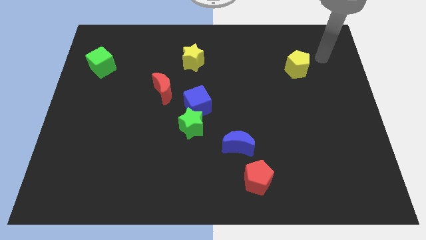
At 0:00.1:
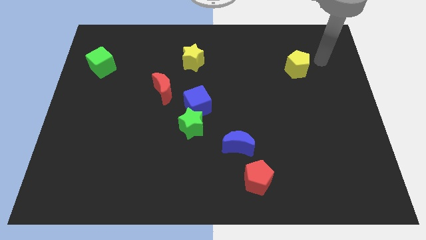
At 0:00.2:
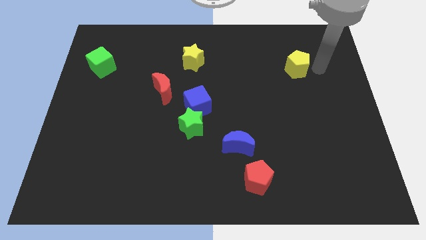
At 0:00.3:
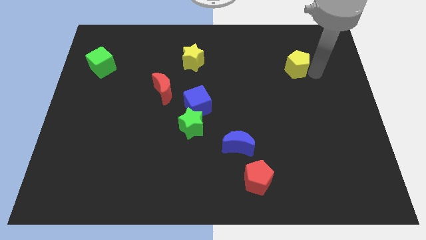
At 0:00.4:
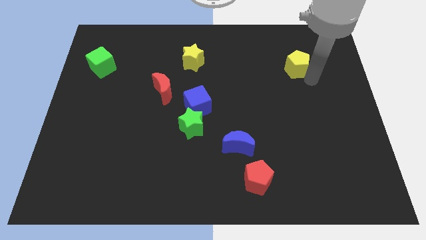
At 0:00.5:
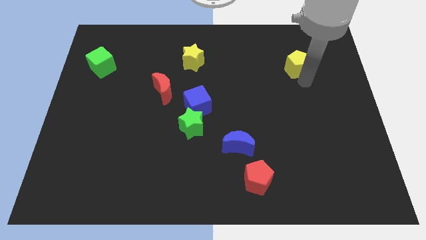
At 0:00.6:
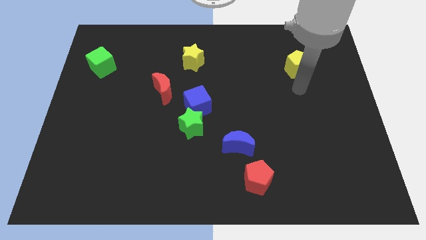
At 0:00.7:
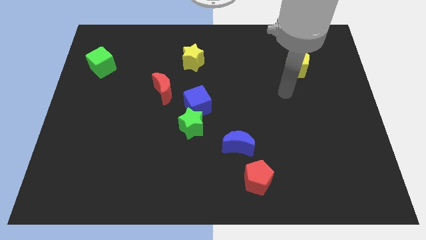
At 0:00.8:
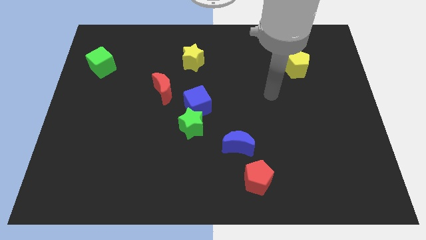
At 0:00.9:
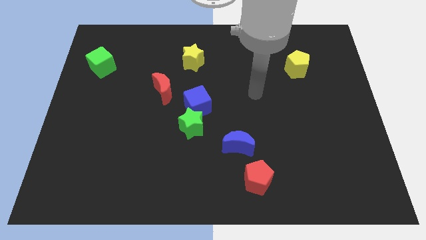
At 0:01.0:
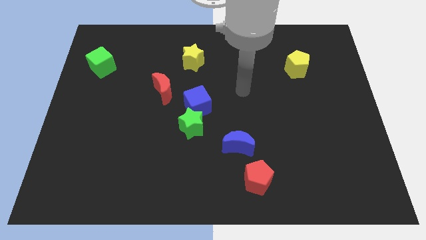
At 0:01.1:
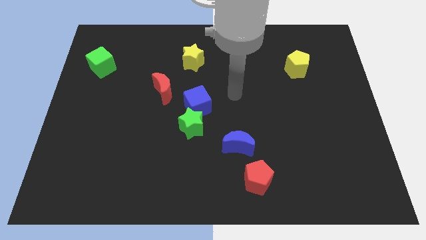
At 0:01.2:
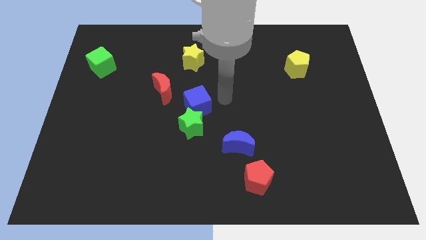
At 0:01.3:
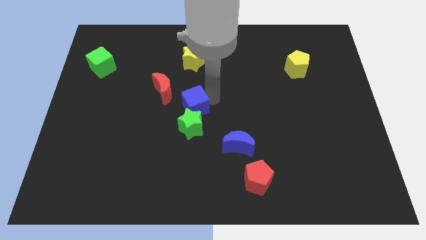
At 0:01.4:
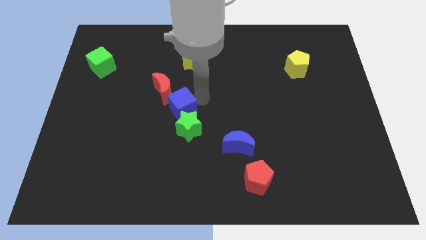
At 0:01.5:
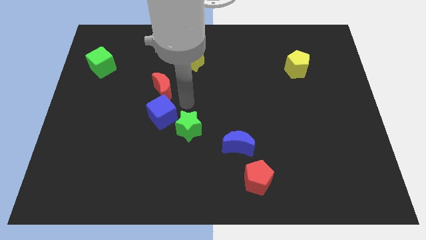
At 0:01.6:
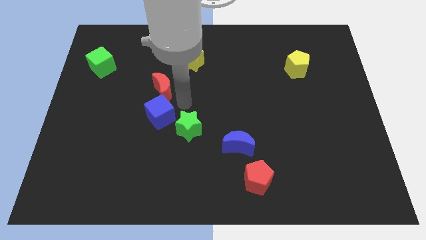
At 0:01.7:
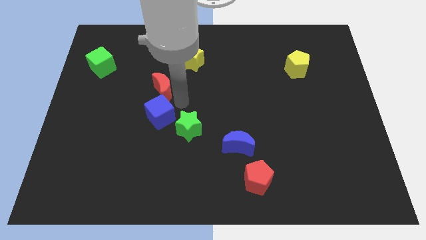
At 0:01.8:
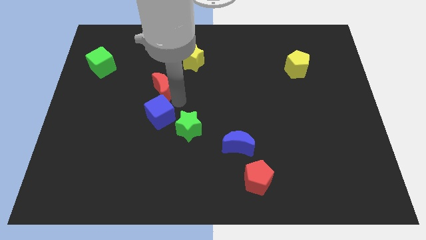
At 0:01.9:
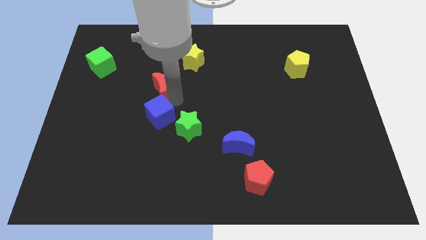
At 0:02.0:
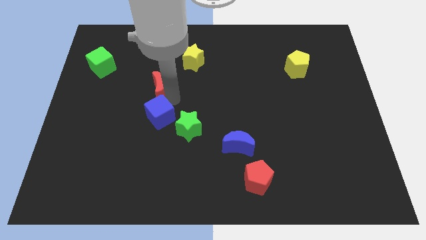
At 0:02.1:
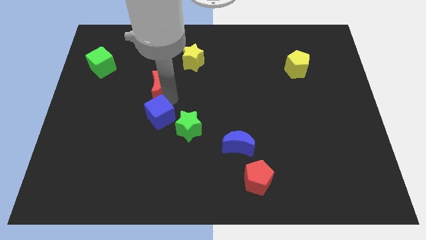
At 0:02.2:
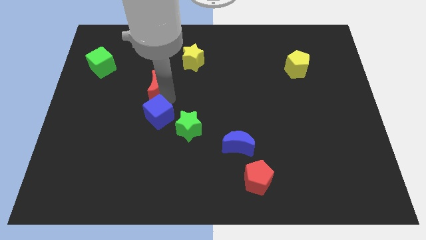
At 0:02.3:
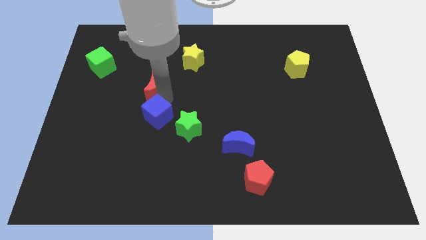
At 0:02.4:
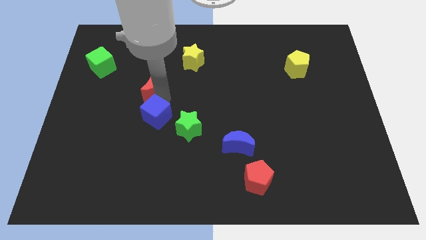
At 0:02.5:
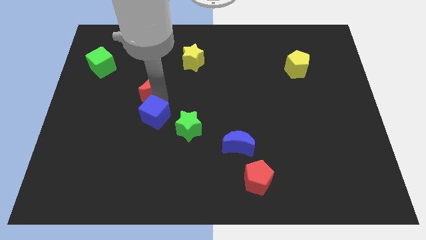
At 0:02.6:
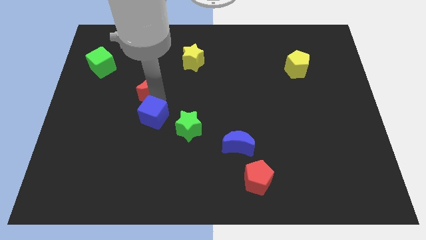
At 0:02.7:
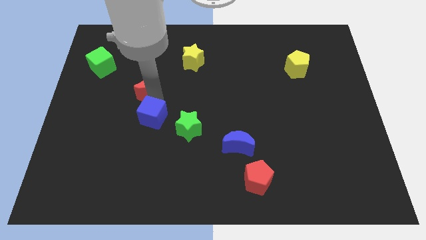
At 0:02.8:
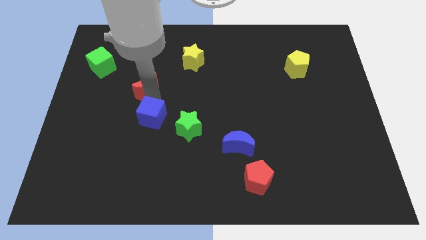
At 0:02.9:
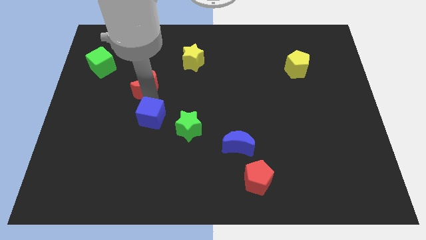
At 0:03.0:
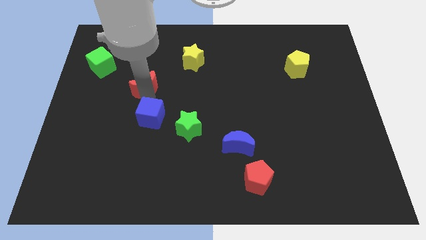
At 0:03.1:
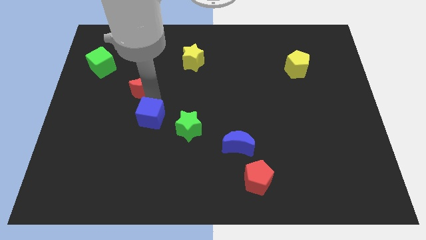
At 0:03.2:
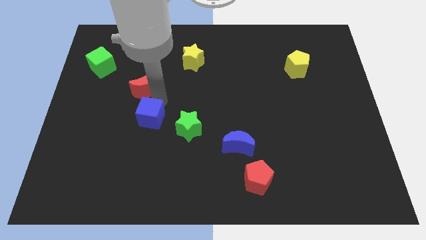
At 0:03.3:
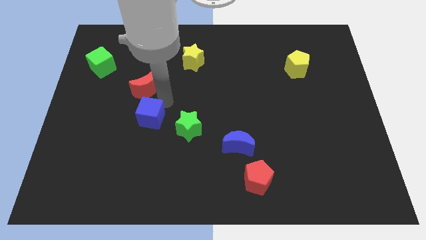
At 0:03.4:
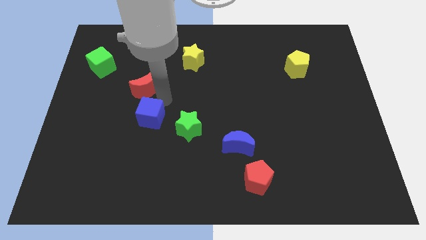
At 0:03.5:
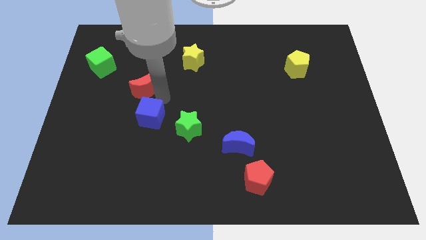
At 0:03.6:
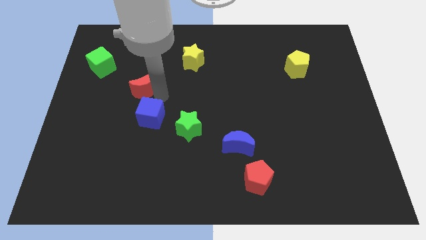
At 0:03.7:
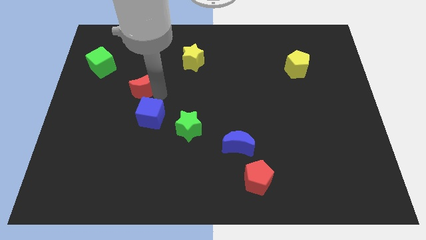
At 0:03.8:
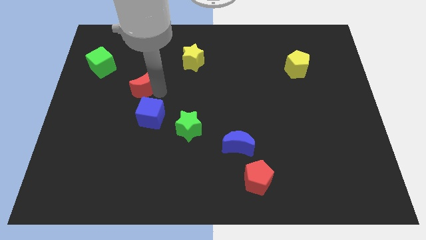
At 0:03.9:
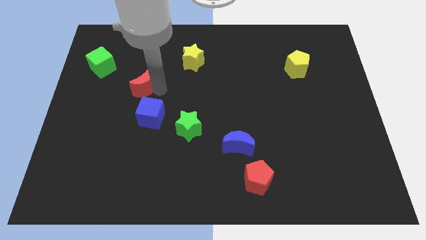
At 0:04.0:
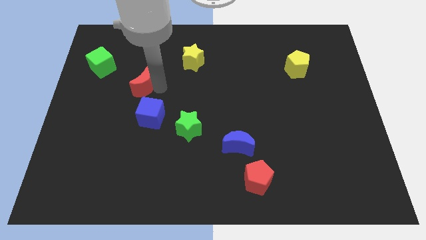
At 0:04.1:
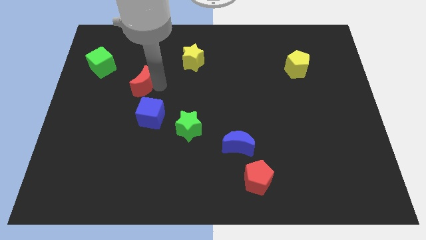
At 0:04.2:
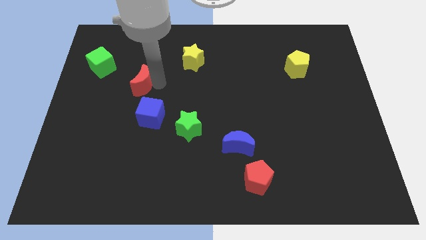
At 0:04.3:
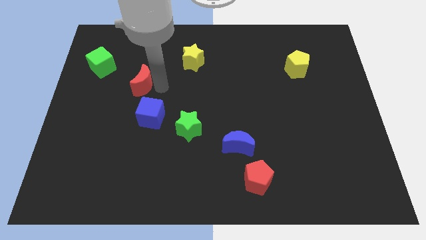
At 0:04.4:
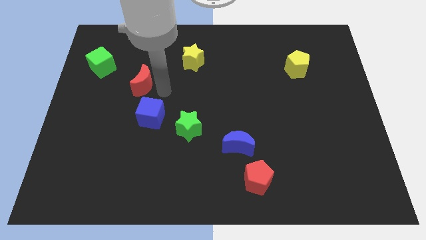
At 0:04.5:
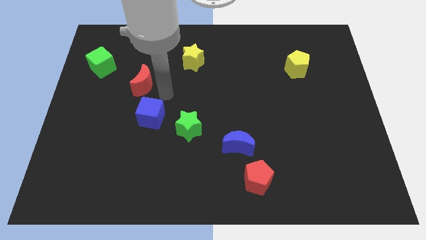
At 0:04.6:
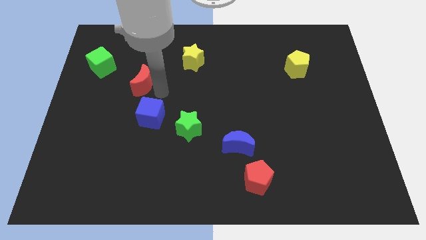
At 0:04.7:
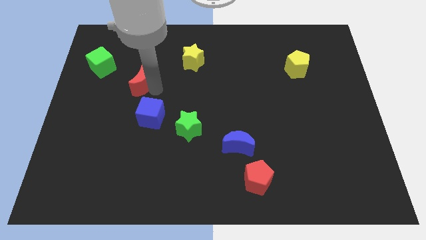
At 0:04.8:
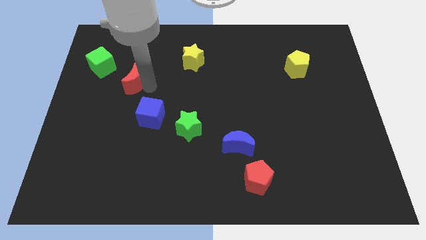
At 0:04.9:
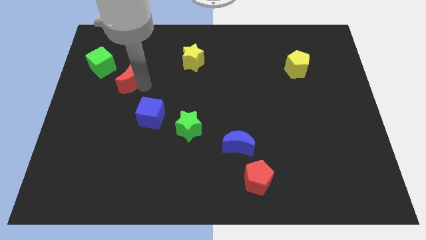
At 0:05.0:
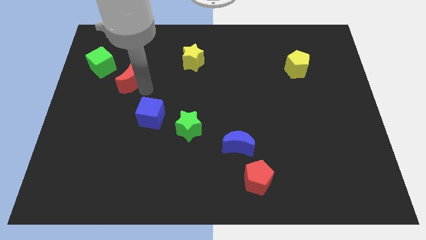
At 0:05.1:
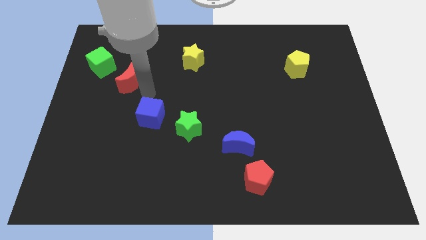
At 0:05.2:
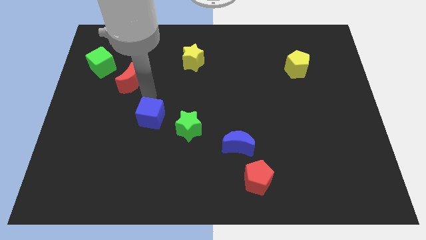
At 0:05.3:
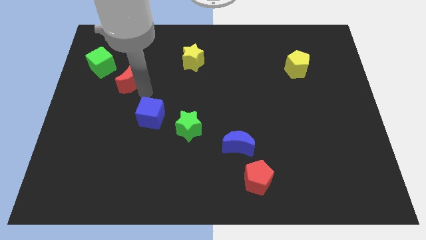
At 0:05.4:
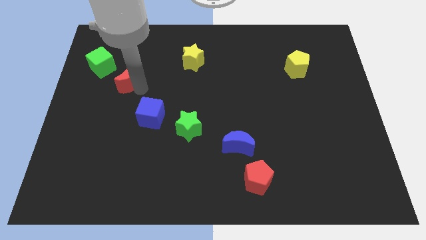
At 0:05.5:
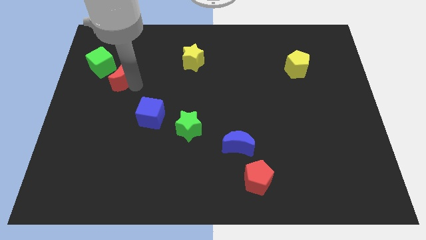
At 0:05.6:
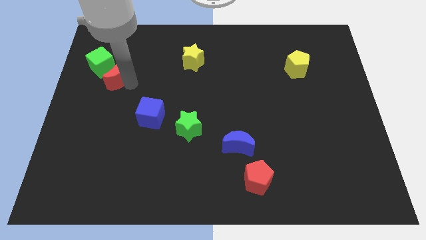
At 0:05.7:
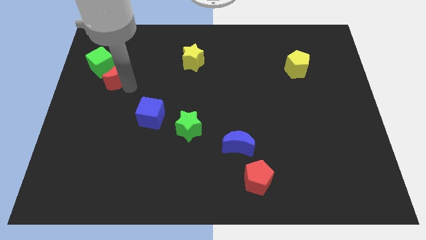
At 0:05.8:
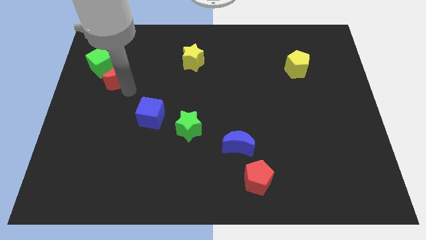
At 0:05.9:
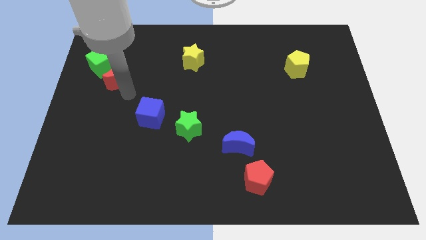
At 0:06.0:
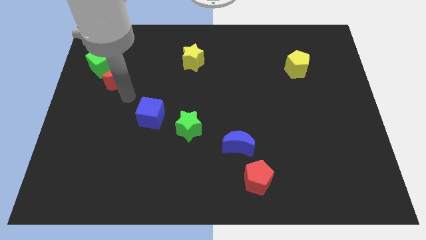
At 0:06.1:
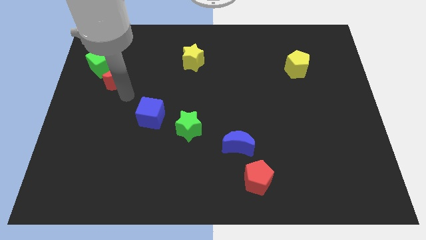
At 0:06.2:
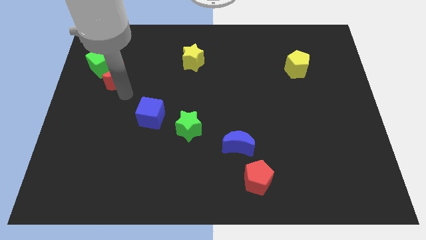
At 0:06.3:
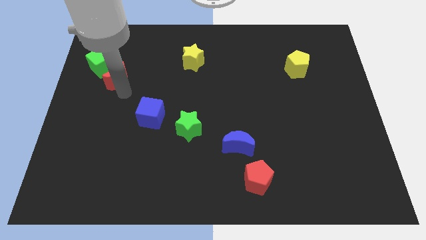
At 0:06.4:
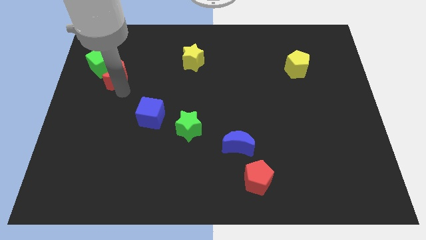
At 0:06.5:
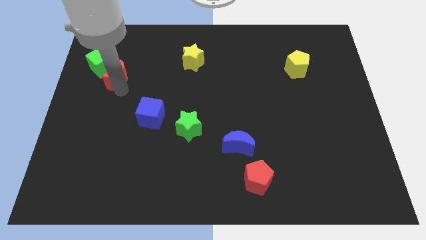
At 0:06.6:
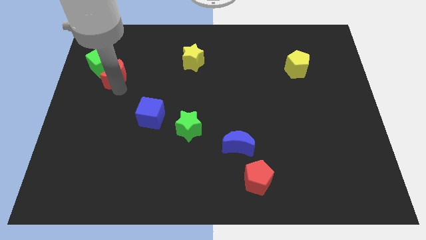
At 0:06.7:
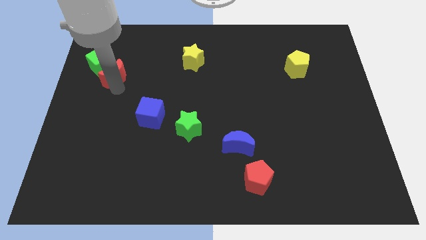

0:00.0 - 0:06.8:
move the red moon close to the green cube

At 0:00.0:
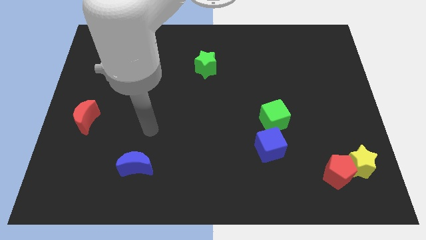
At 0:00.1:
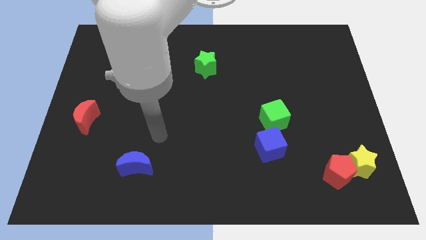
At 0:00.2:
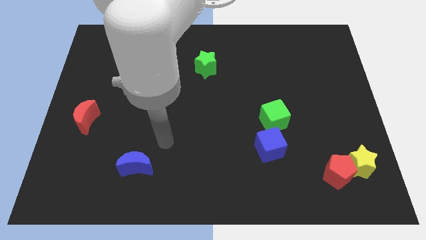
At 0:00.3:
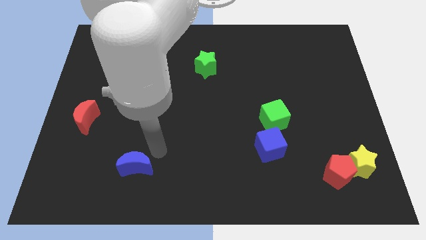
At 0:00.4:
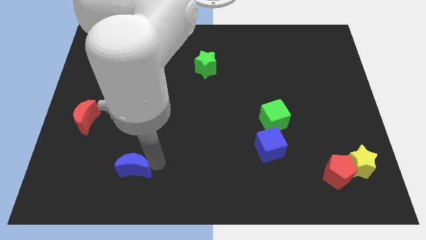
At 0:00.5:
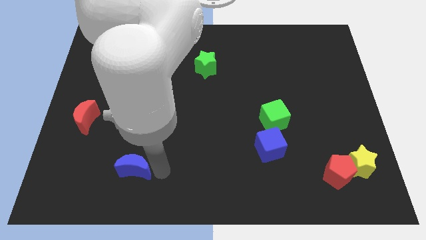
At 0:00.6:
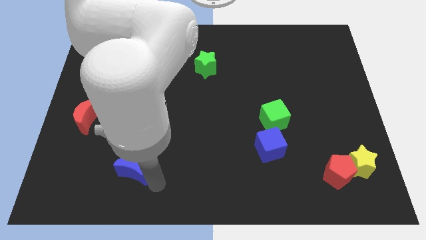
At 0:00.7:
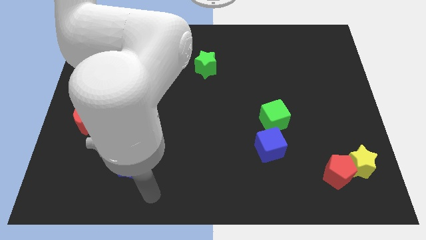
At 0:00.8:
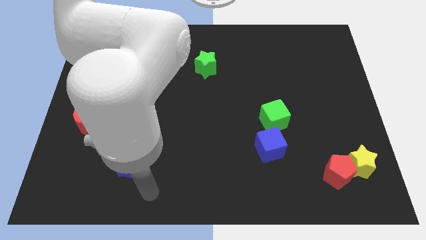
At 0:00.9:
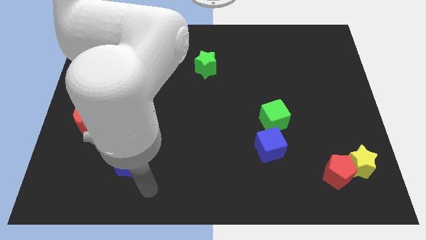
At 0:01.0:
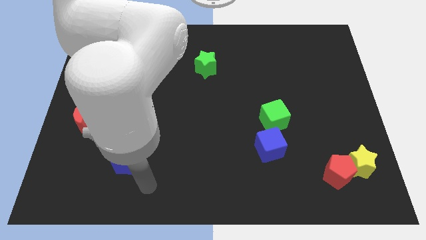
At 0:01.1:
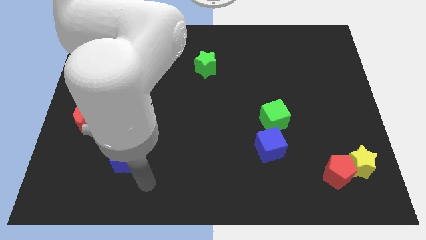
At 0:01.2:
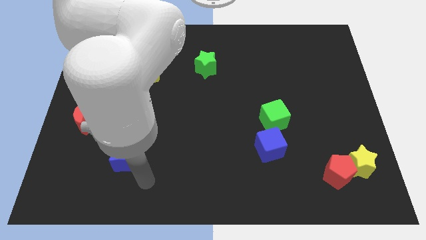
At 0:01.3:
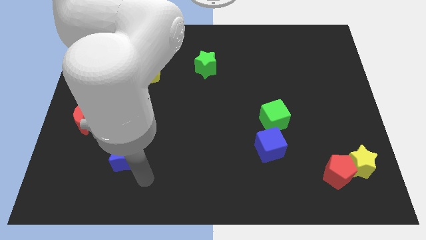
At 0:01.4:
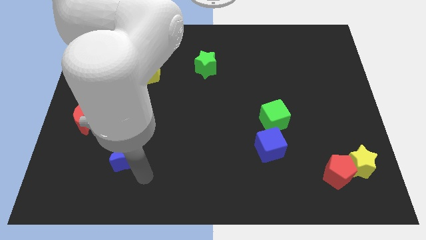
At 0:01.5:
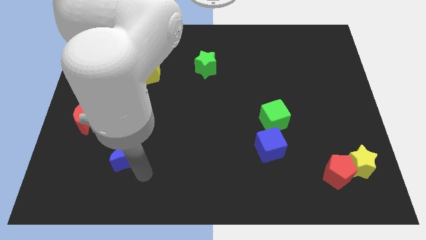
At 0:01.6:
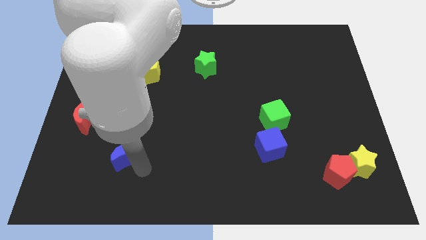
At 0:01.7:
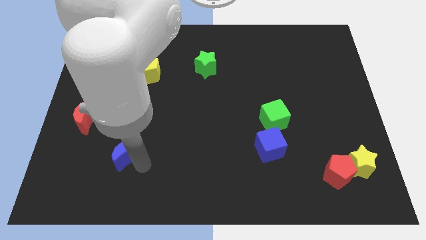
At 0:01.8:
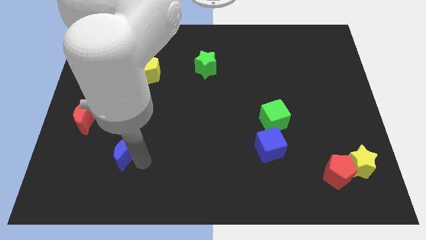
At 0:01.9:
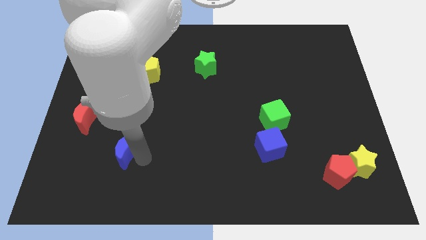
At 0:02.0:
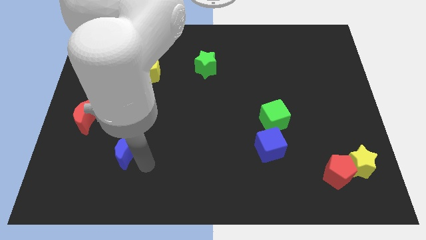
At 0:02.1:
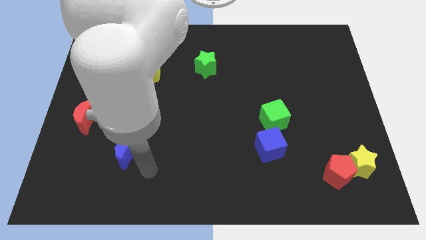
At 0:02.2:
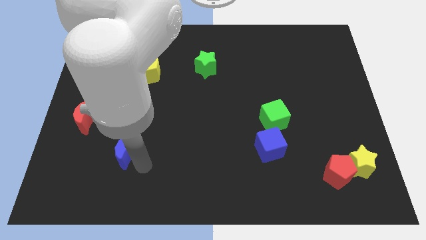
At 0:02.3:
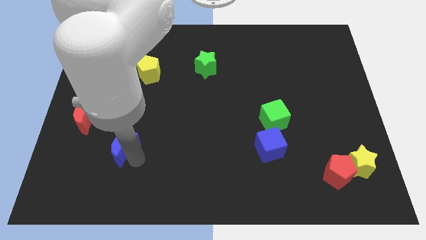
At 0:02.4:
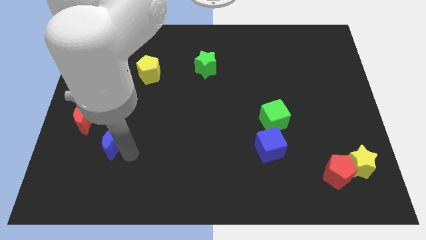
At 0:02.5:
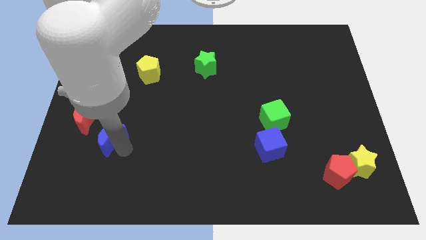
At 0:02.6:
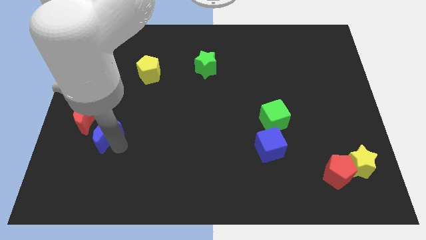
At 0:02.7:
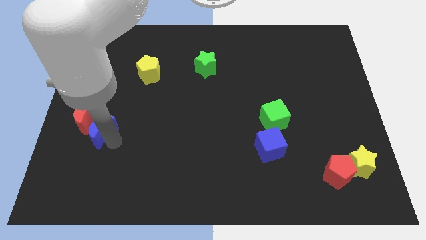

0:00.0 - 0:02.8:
push the blue moon towards the red moon
